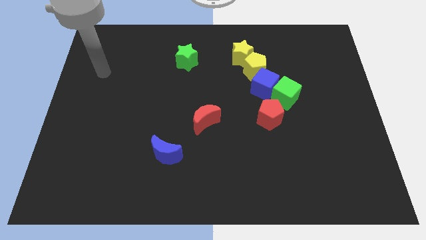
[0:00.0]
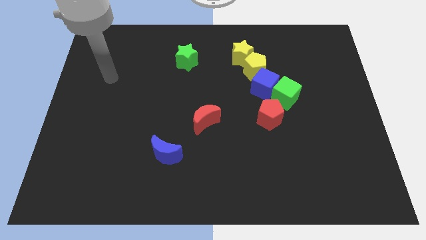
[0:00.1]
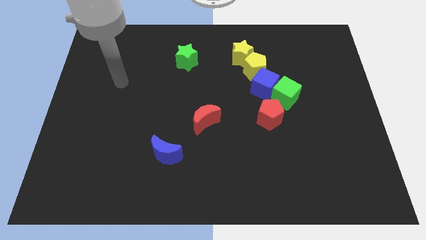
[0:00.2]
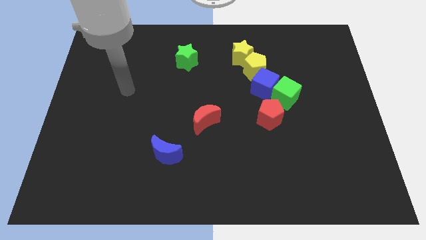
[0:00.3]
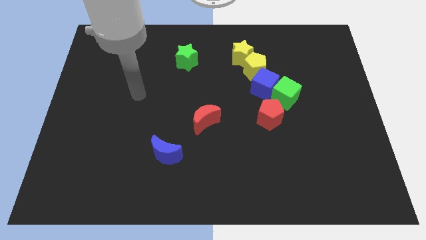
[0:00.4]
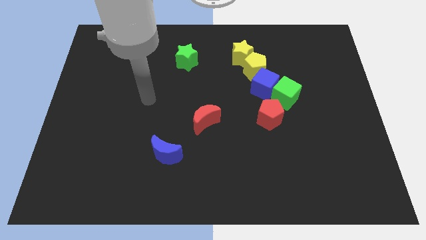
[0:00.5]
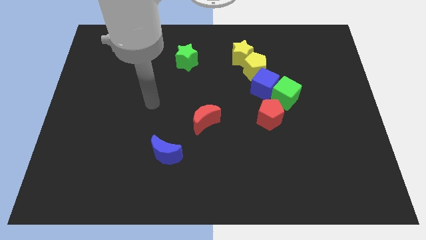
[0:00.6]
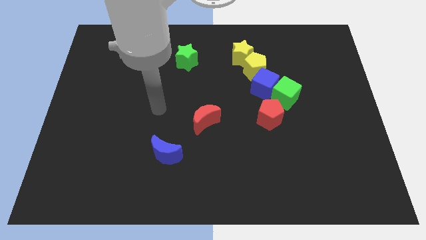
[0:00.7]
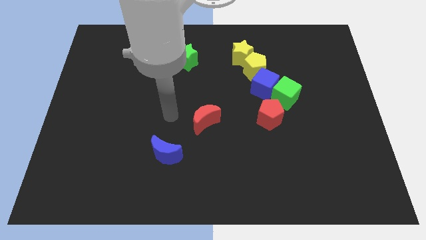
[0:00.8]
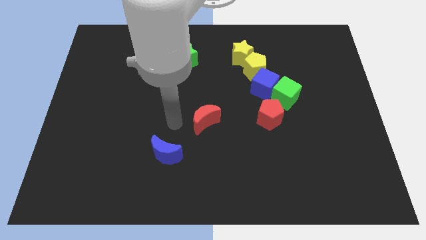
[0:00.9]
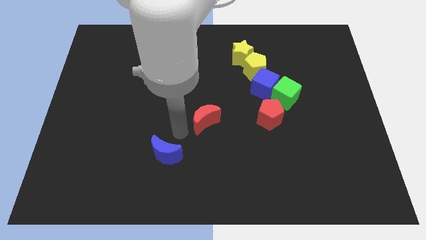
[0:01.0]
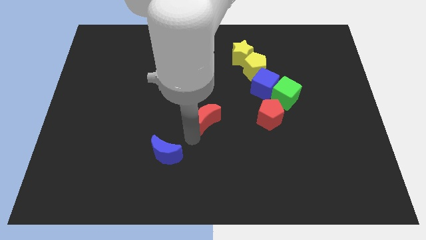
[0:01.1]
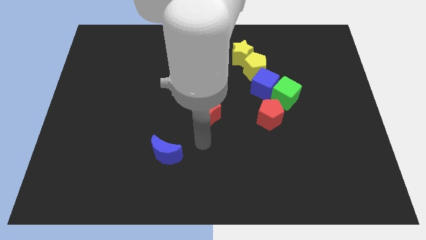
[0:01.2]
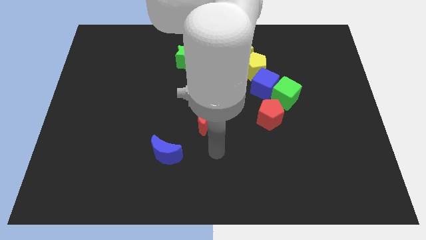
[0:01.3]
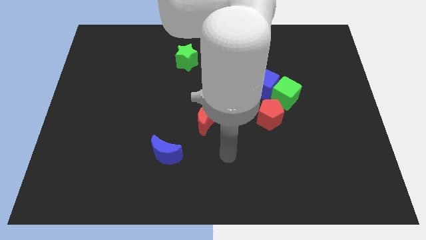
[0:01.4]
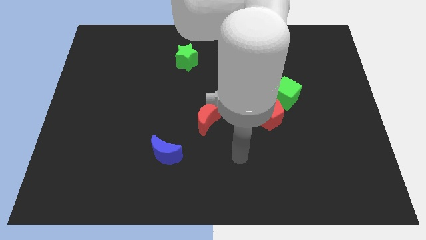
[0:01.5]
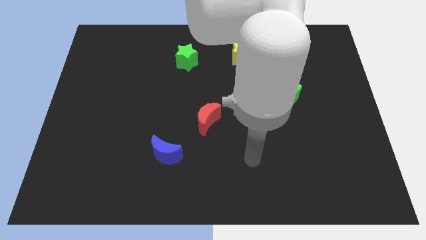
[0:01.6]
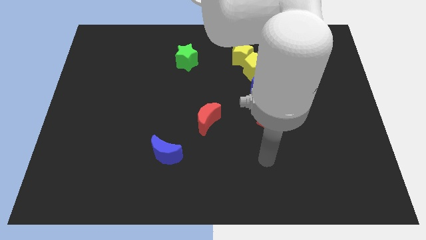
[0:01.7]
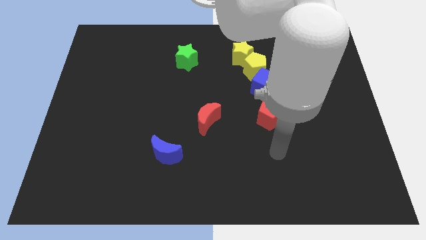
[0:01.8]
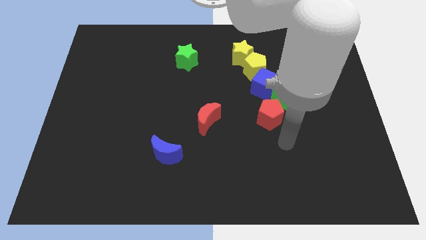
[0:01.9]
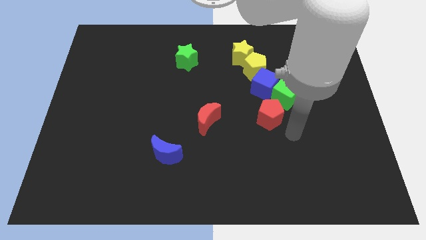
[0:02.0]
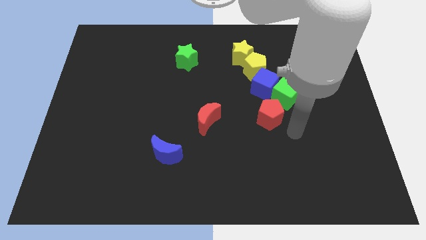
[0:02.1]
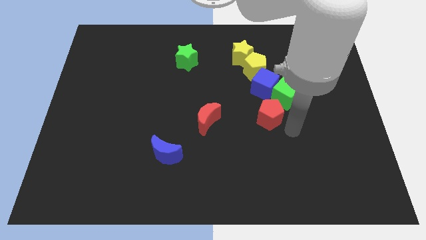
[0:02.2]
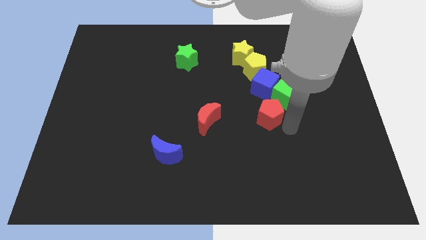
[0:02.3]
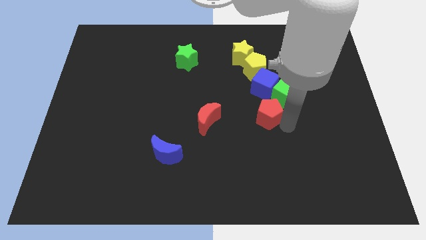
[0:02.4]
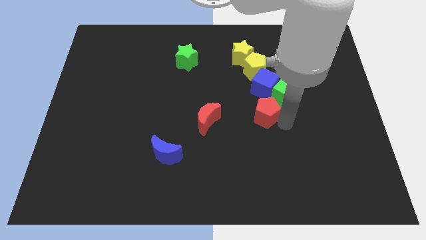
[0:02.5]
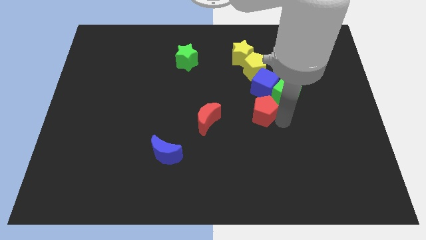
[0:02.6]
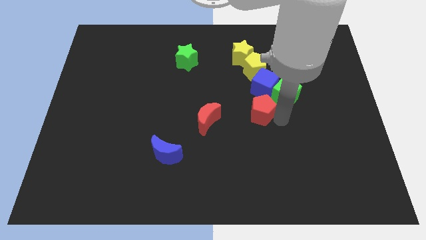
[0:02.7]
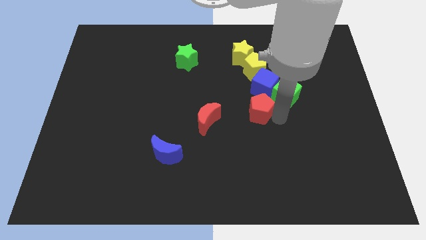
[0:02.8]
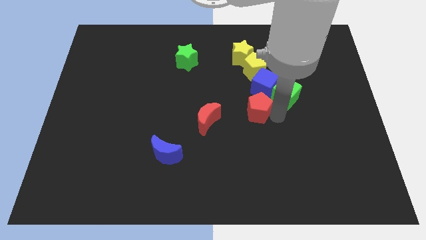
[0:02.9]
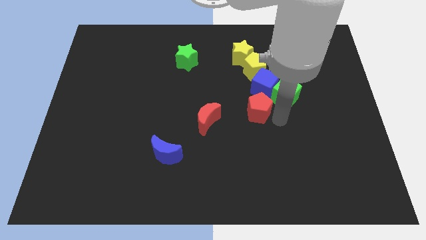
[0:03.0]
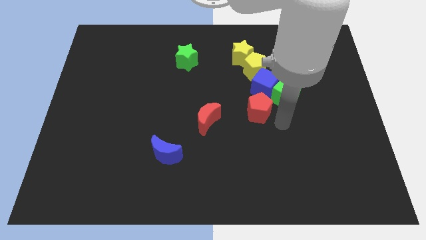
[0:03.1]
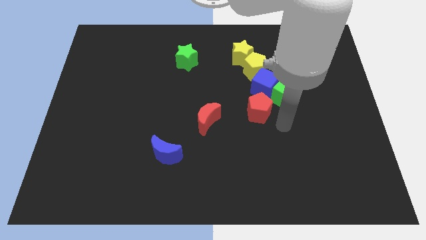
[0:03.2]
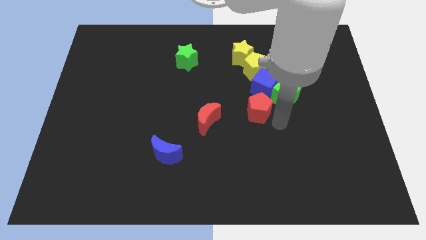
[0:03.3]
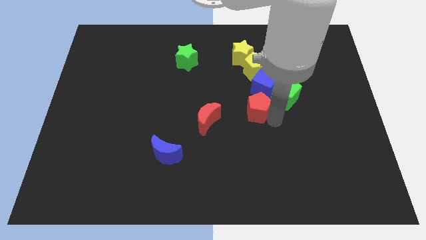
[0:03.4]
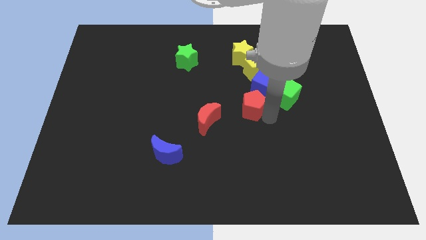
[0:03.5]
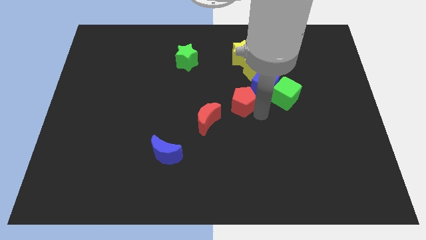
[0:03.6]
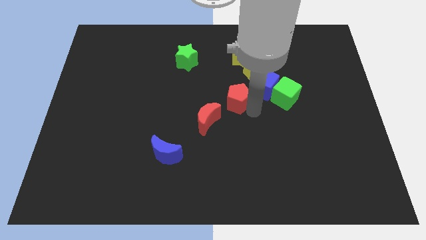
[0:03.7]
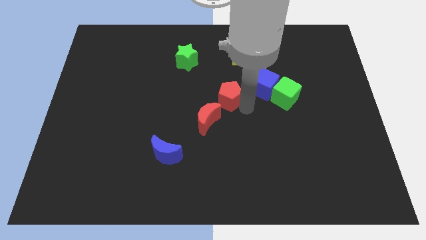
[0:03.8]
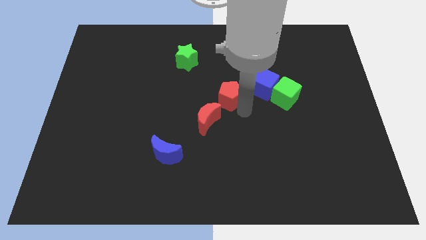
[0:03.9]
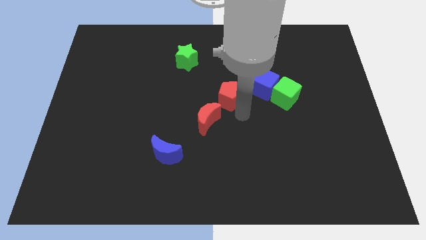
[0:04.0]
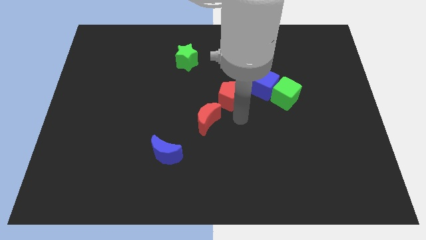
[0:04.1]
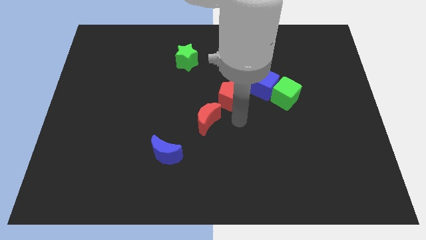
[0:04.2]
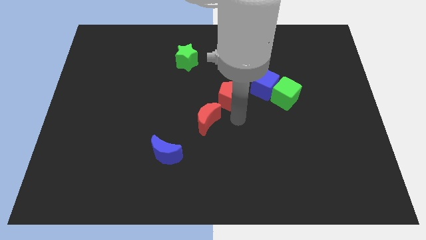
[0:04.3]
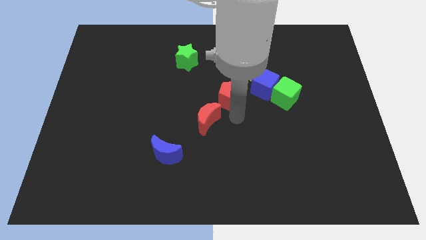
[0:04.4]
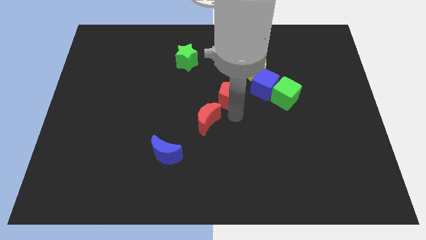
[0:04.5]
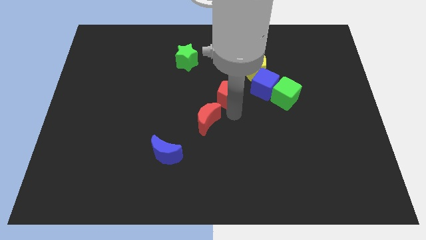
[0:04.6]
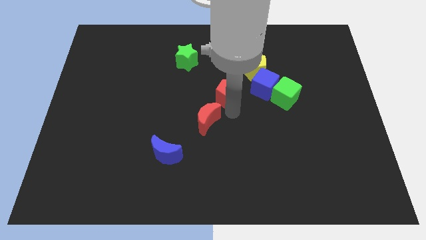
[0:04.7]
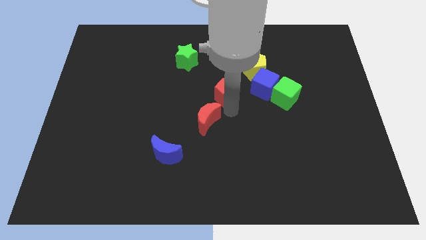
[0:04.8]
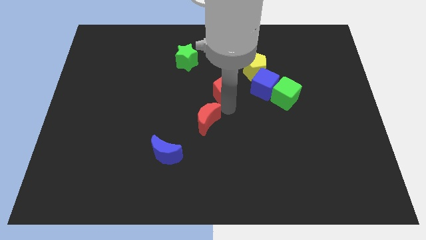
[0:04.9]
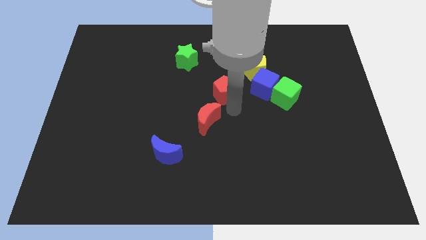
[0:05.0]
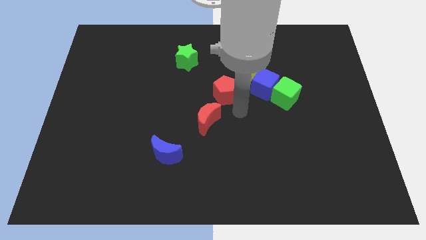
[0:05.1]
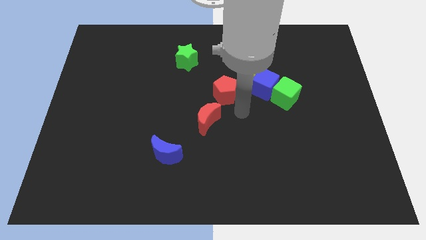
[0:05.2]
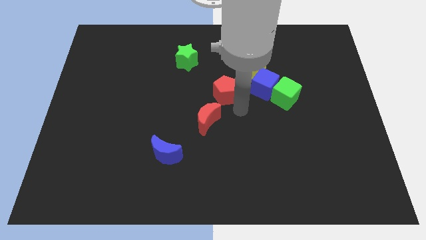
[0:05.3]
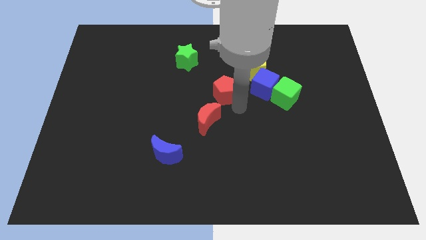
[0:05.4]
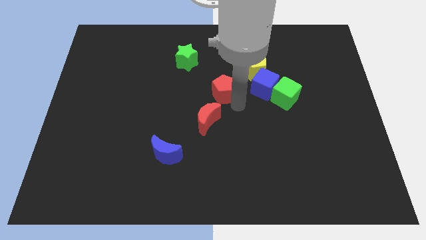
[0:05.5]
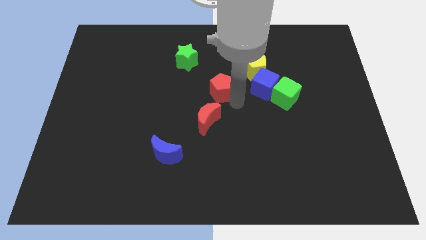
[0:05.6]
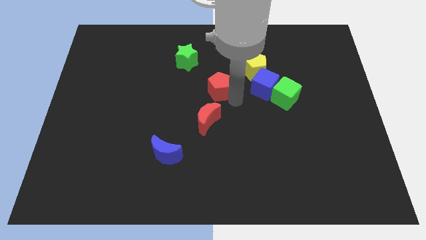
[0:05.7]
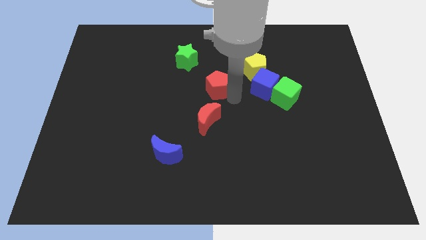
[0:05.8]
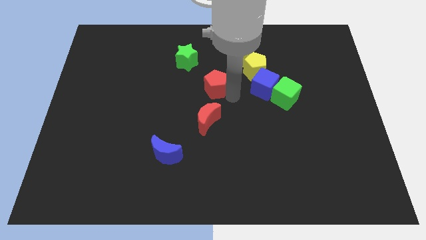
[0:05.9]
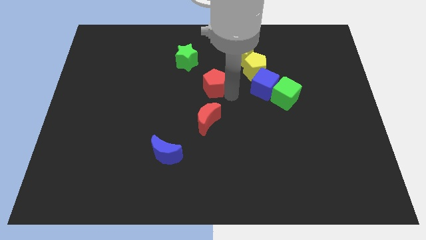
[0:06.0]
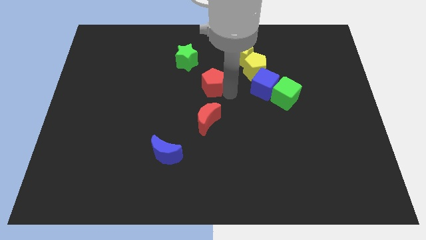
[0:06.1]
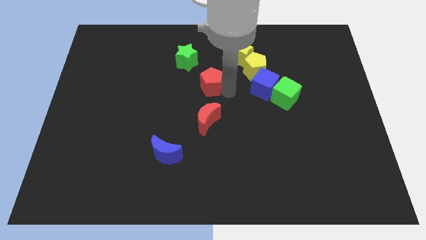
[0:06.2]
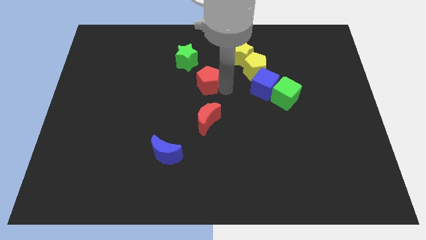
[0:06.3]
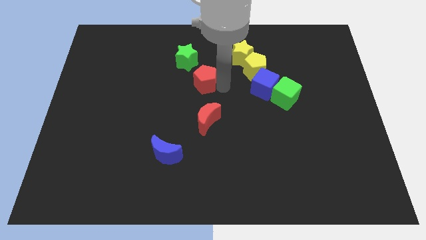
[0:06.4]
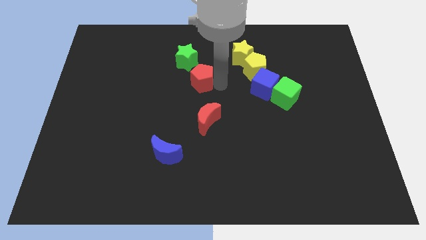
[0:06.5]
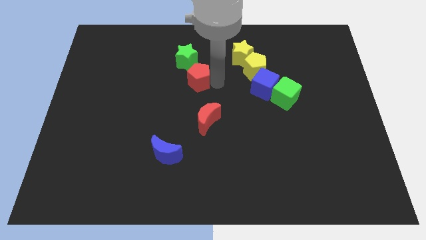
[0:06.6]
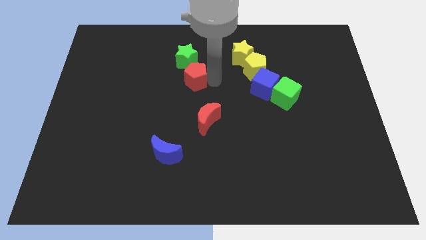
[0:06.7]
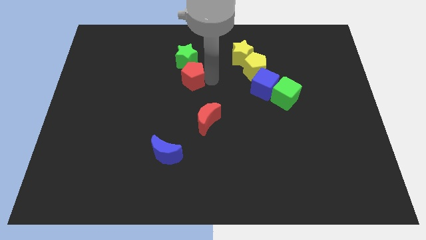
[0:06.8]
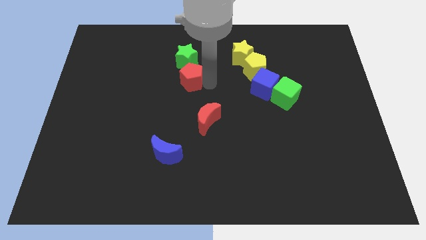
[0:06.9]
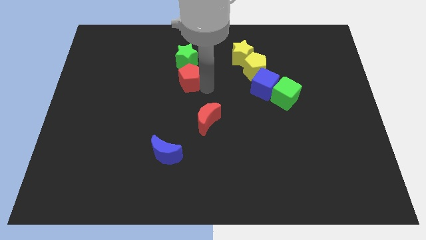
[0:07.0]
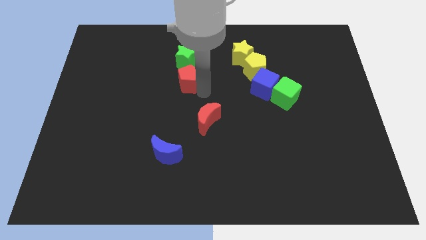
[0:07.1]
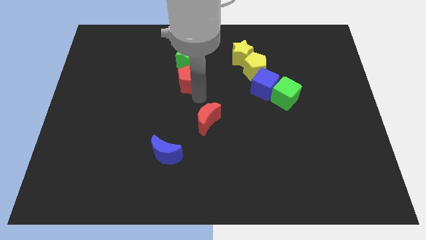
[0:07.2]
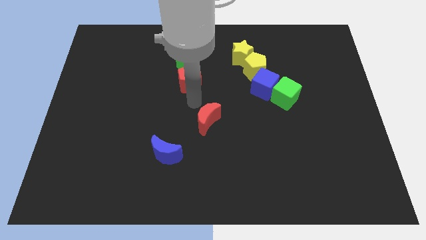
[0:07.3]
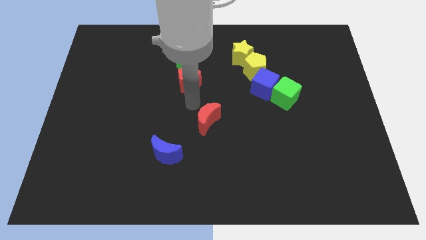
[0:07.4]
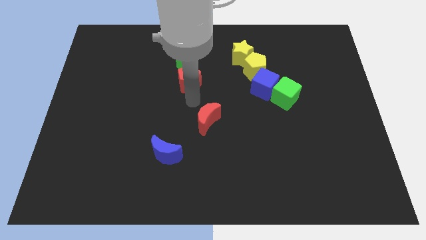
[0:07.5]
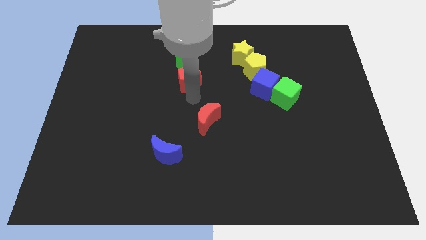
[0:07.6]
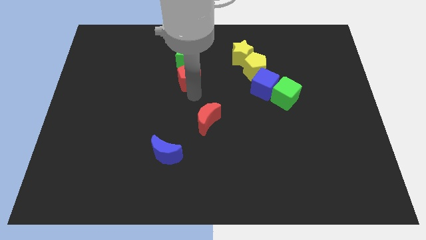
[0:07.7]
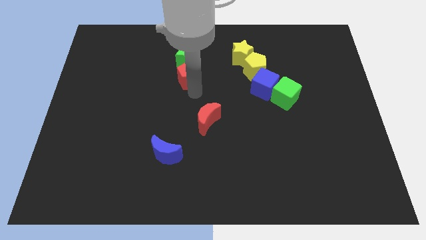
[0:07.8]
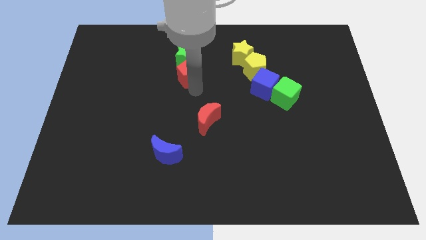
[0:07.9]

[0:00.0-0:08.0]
slide the red pentagon to the green star
